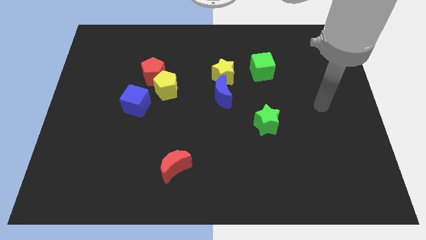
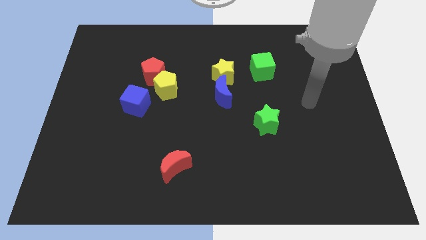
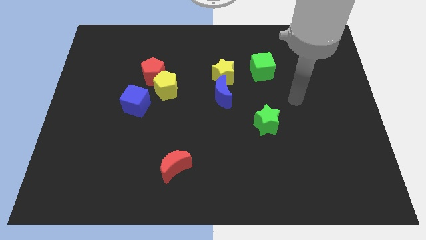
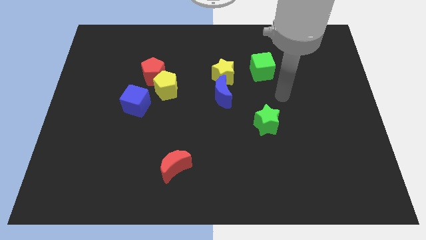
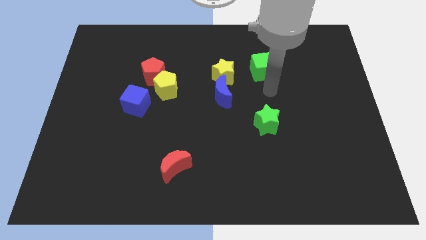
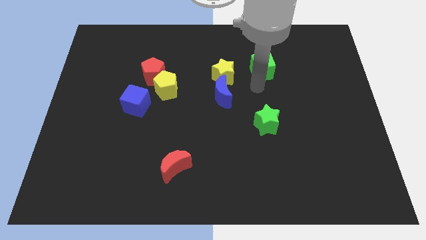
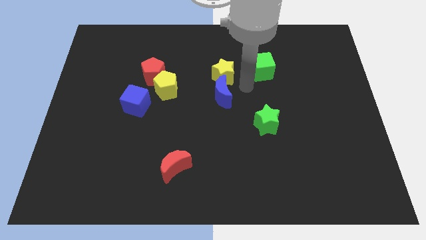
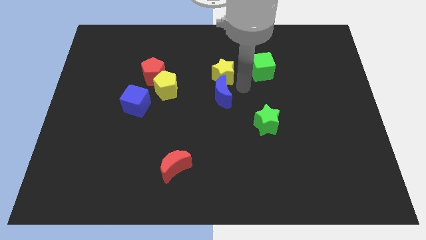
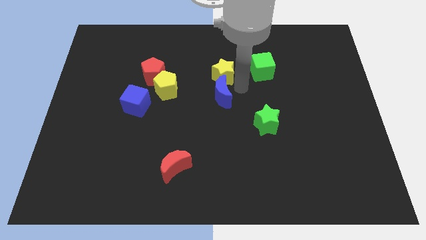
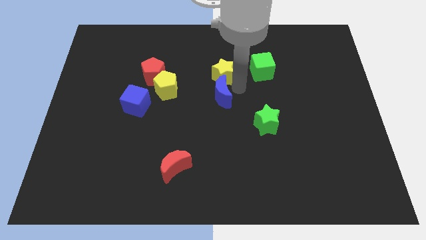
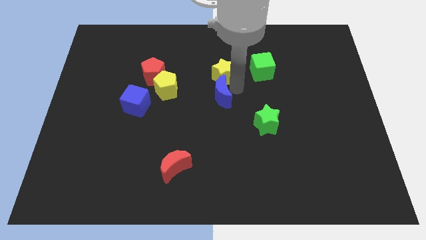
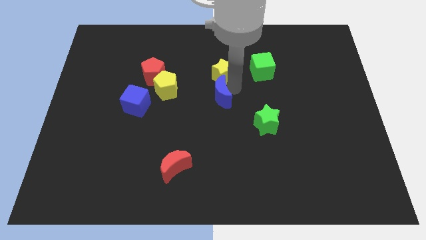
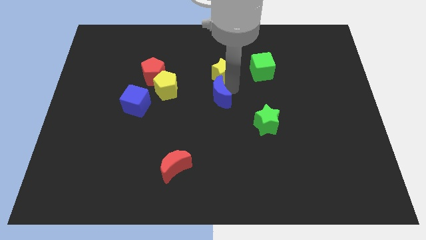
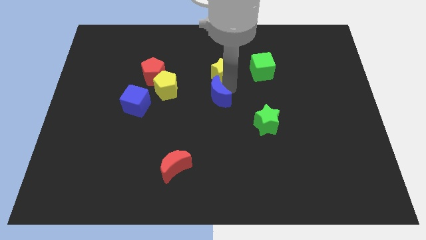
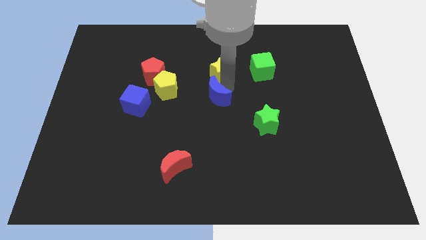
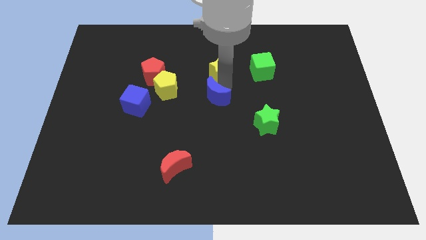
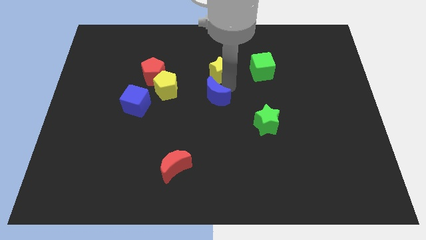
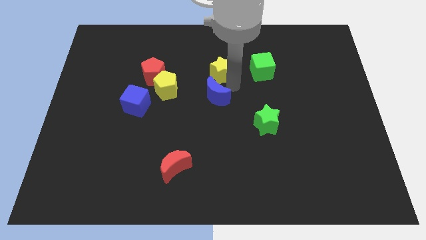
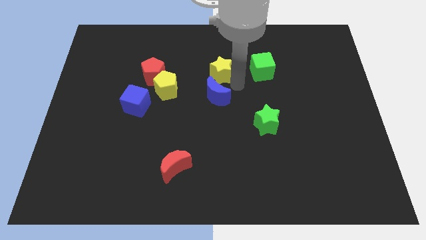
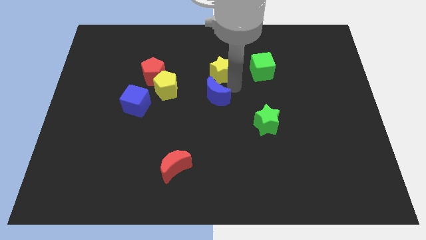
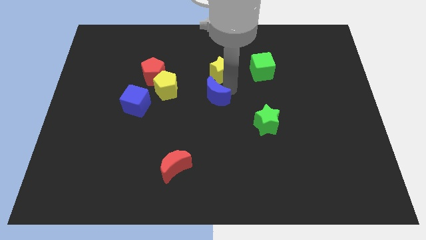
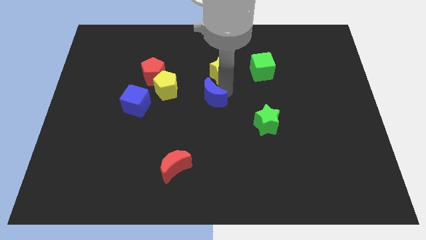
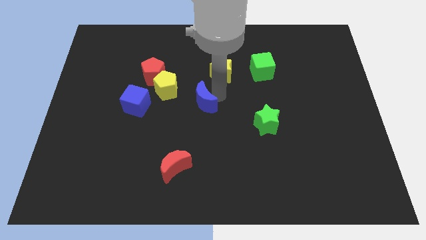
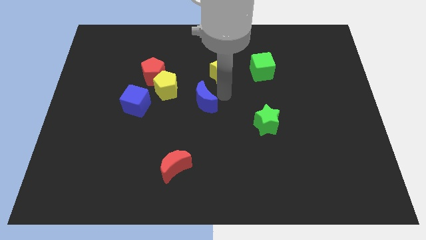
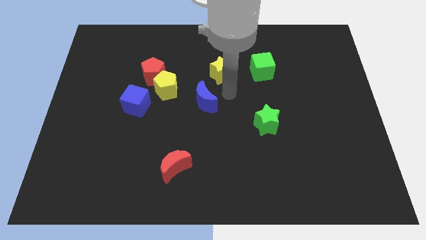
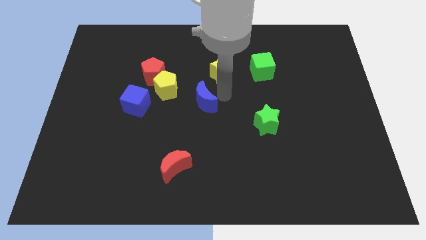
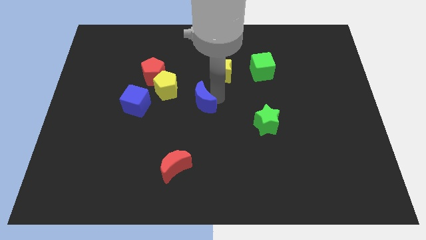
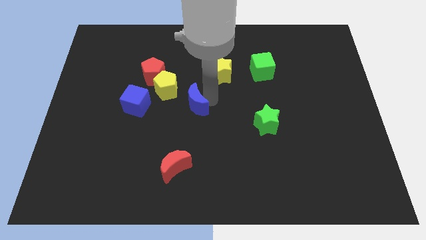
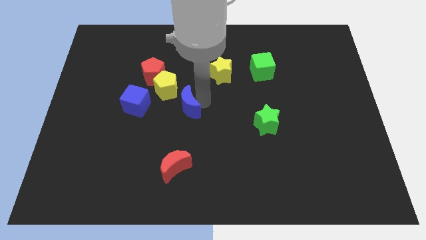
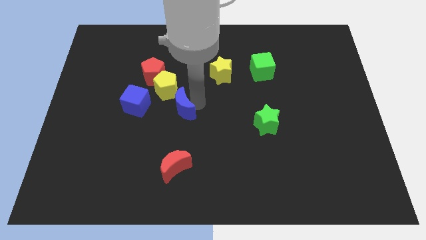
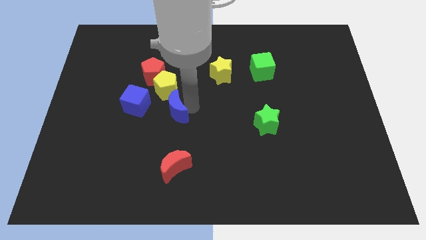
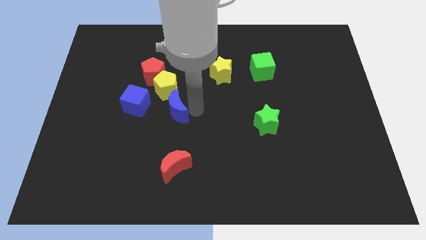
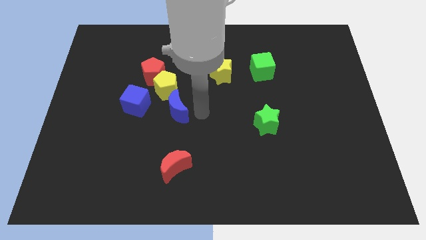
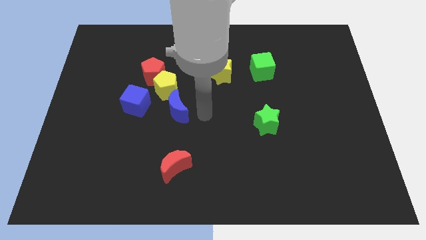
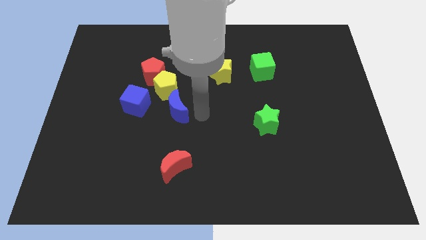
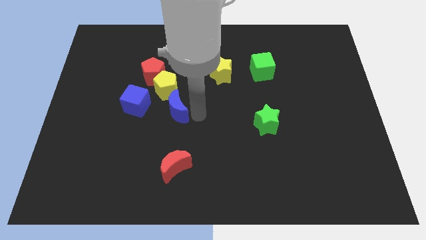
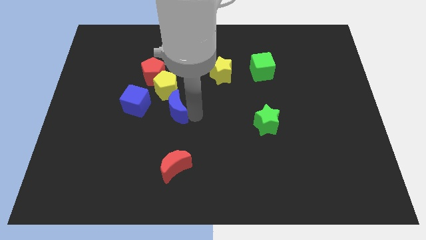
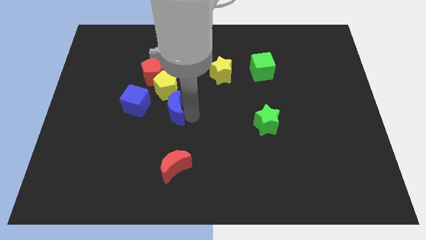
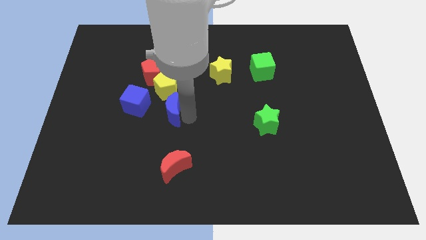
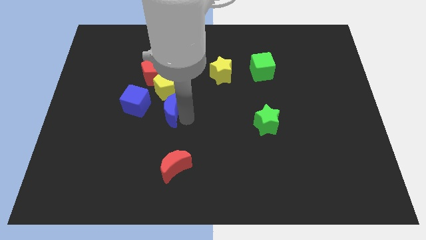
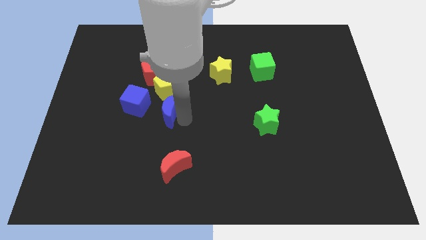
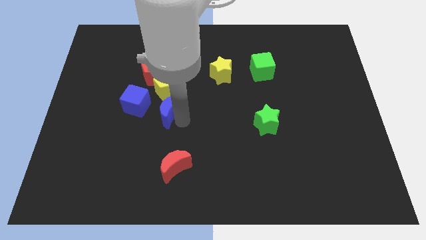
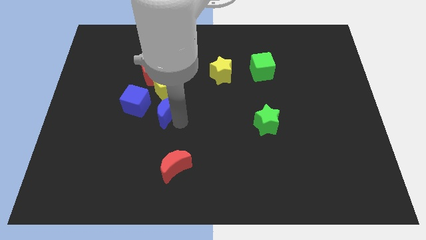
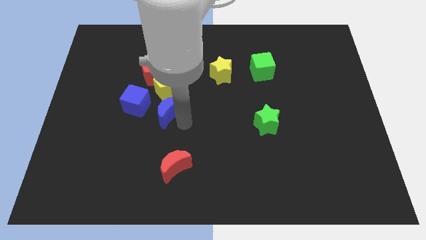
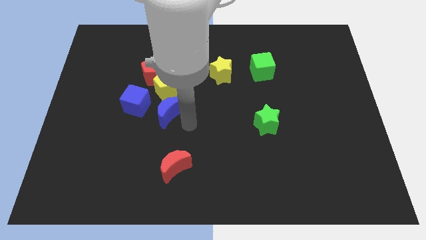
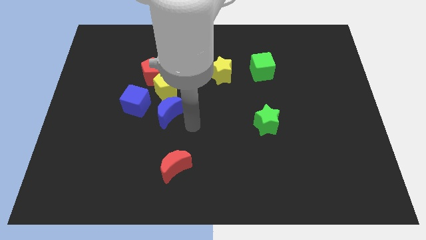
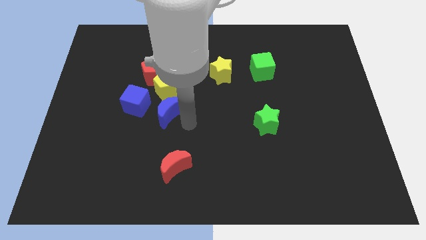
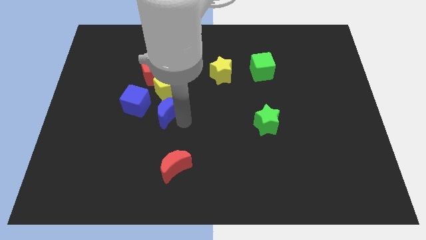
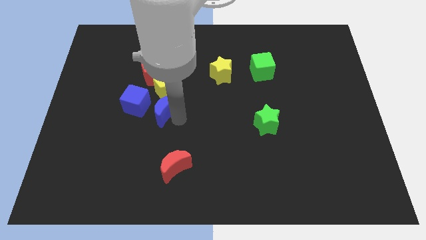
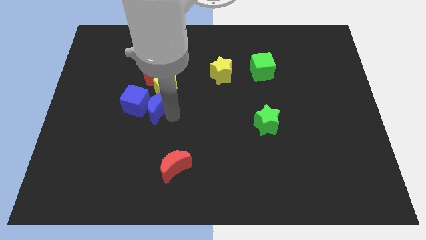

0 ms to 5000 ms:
push the blue moon next to the blue cube

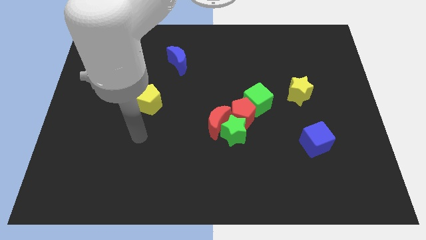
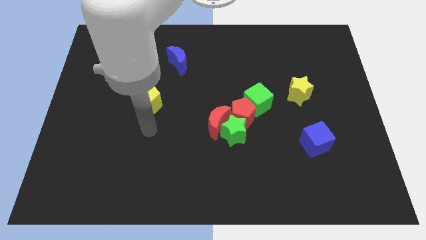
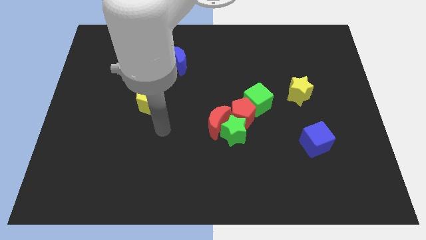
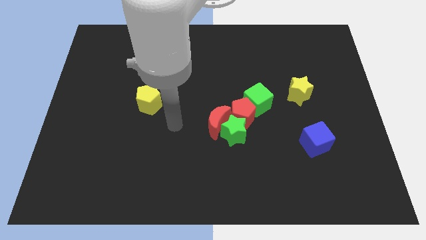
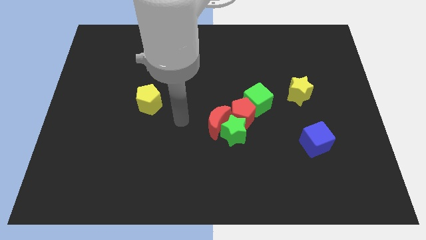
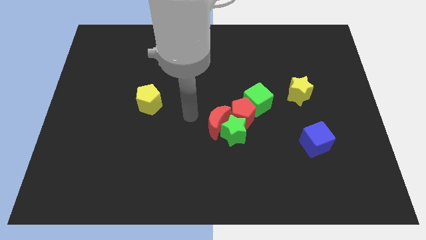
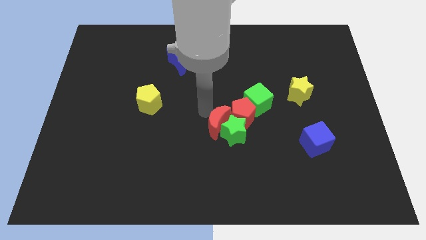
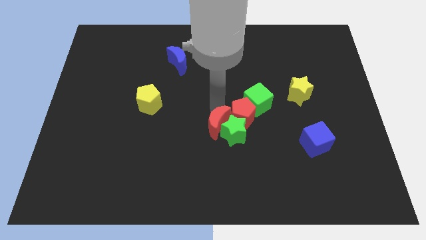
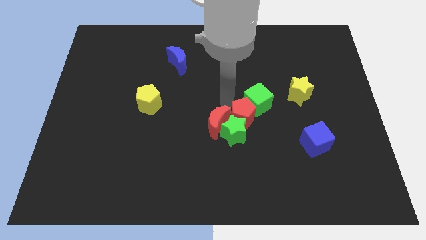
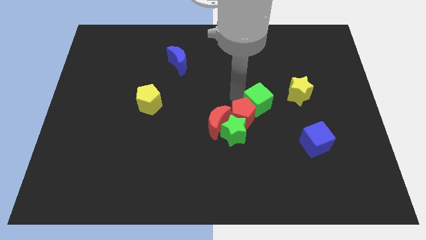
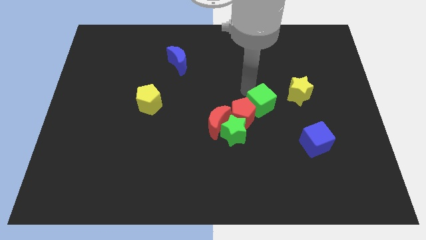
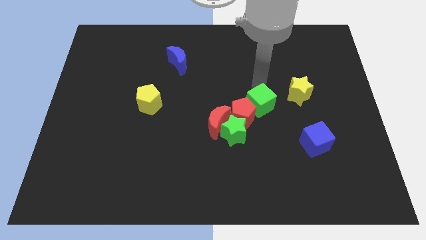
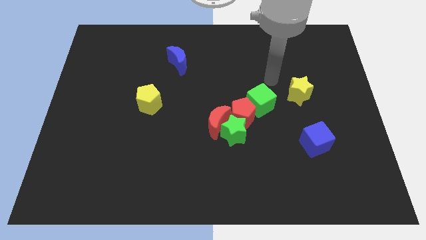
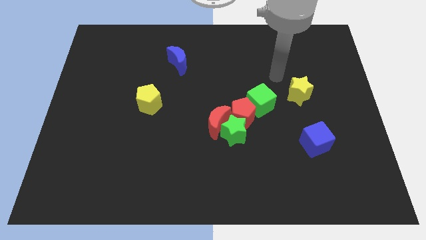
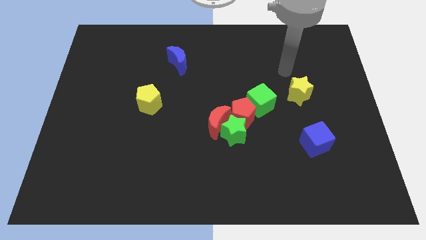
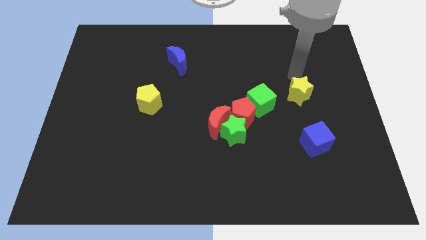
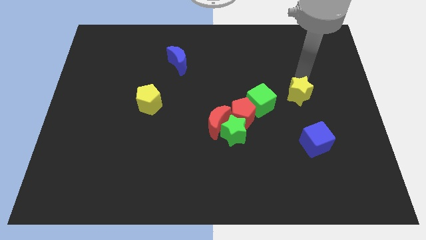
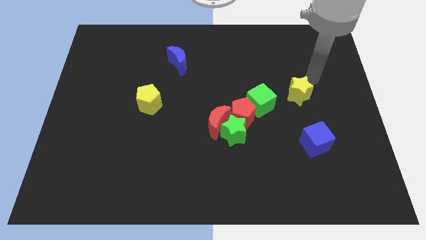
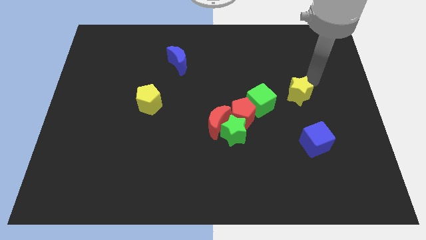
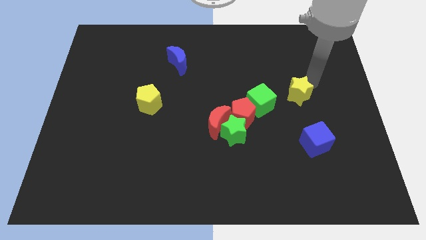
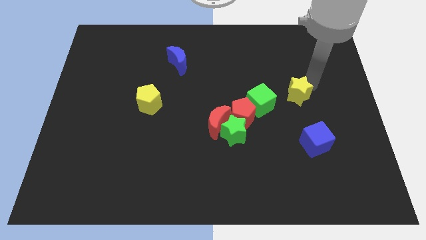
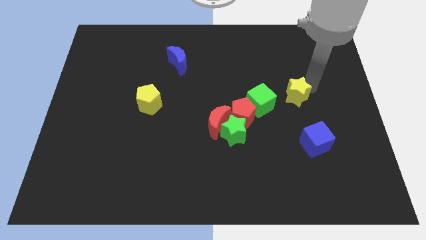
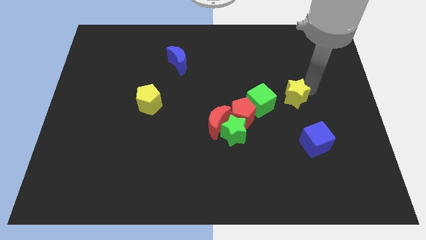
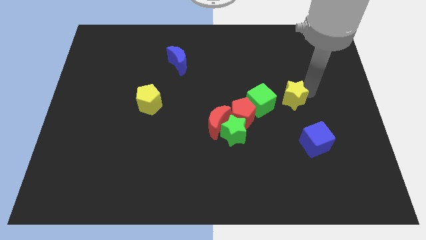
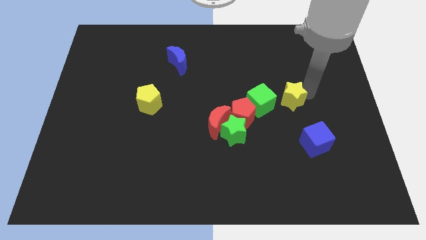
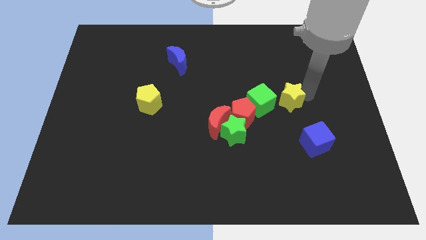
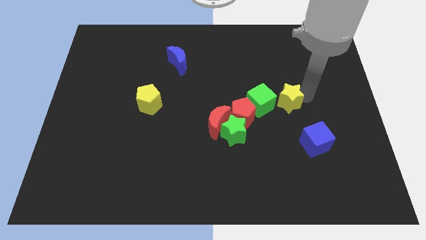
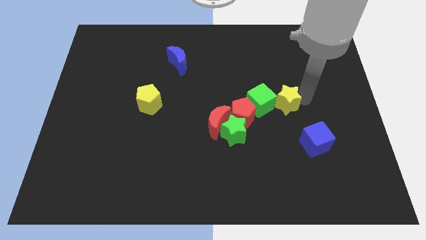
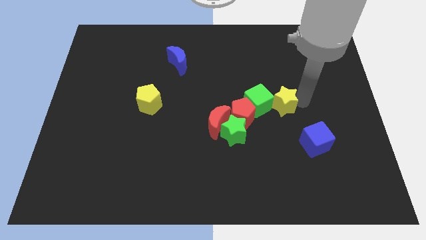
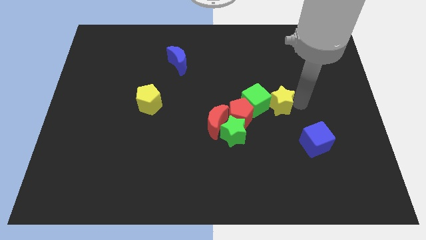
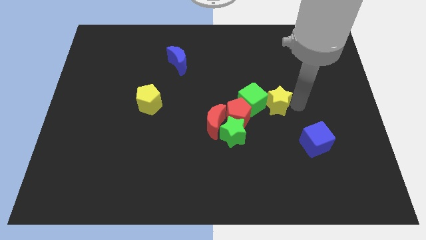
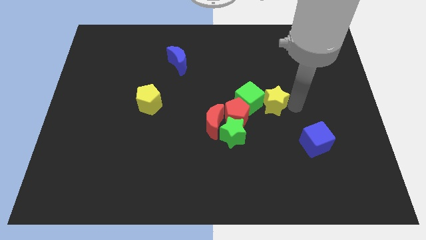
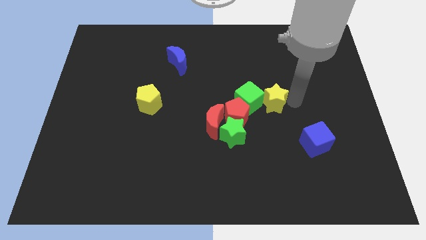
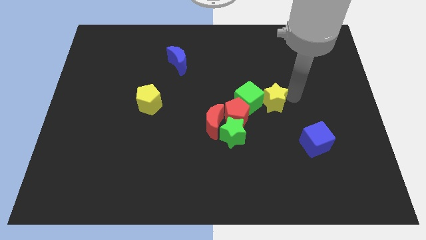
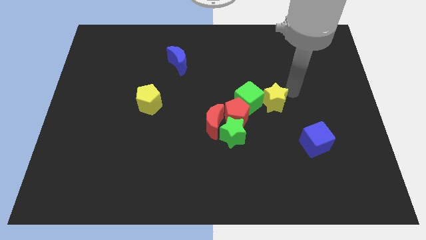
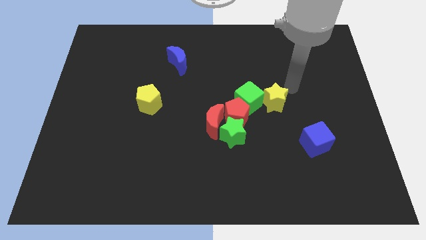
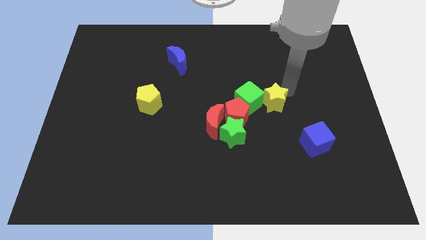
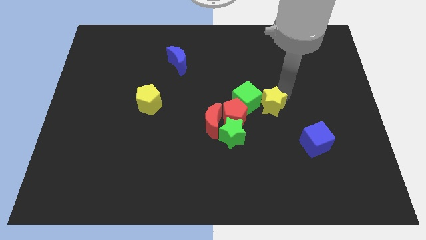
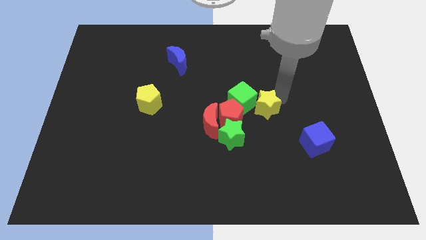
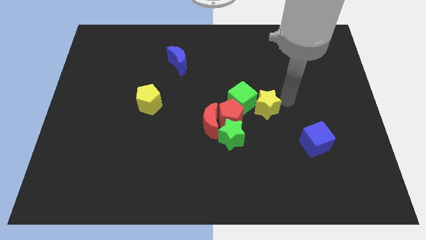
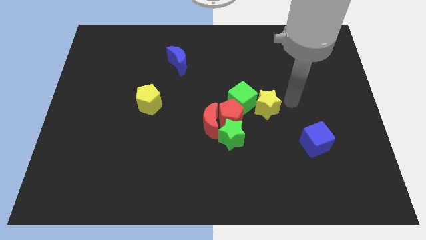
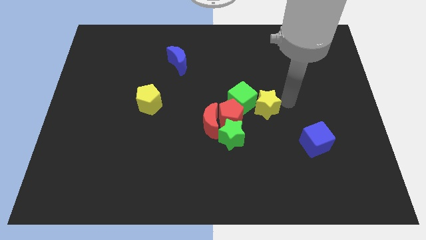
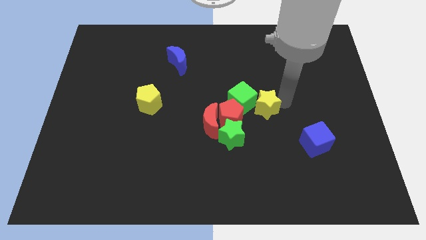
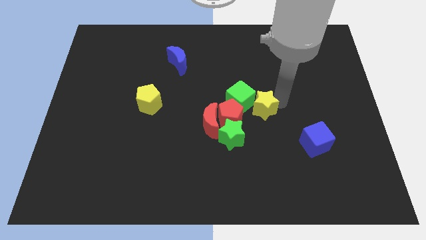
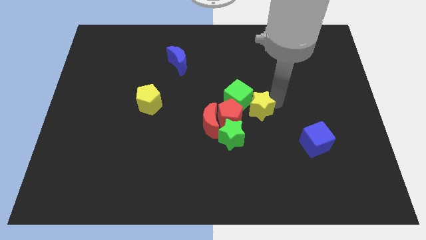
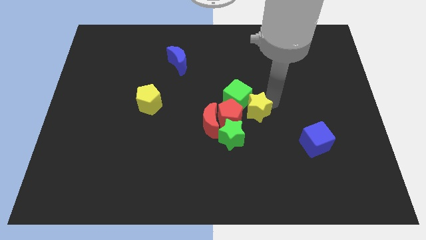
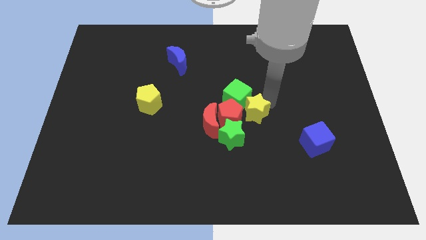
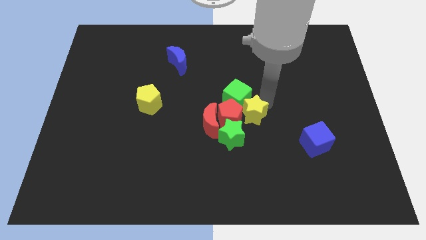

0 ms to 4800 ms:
slide the yellow star next to the red pentagon
